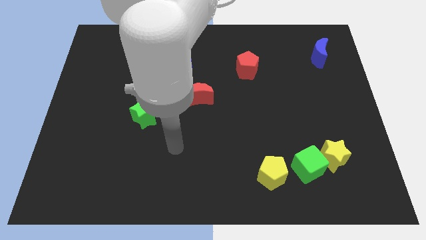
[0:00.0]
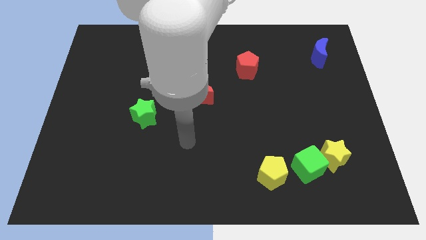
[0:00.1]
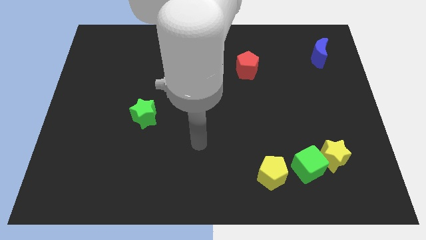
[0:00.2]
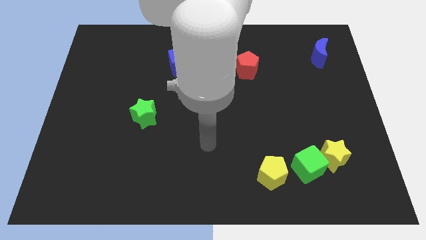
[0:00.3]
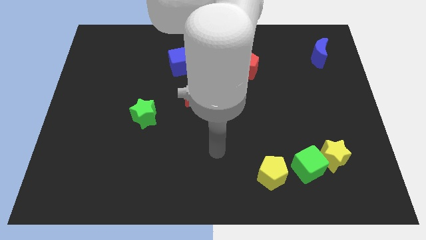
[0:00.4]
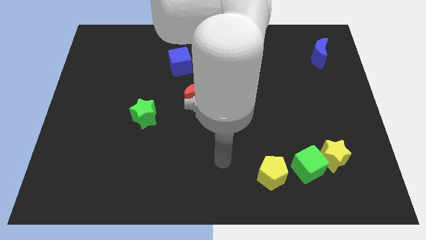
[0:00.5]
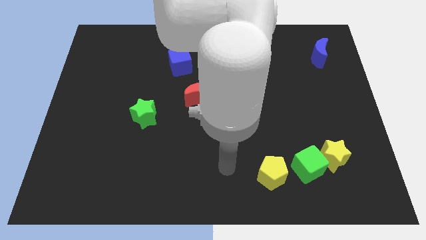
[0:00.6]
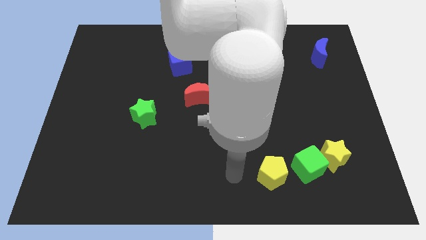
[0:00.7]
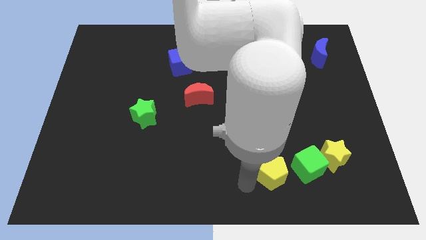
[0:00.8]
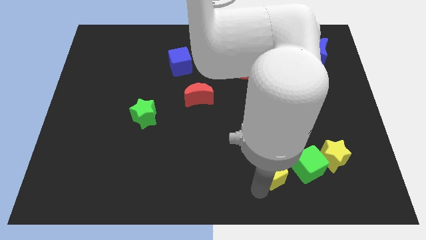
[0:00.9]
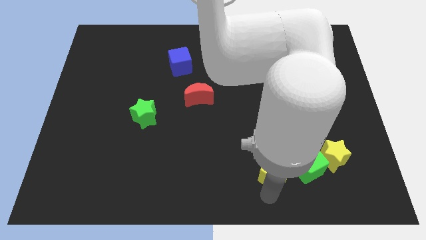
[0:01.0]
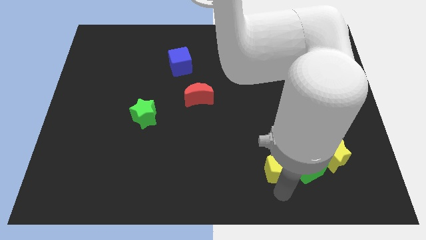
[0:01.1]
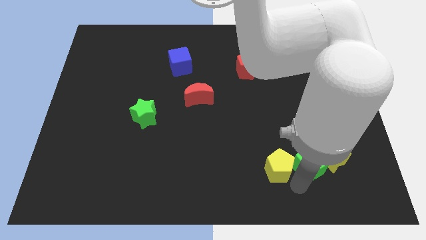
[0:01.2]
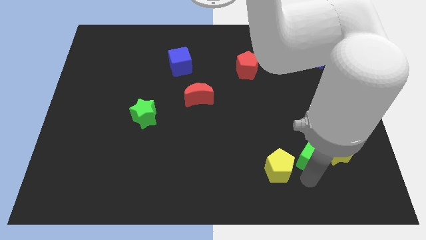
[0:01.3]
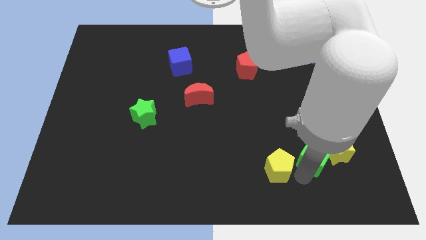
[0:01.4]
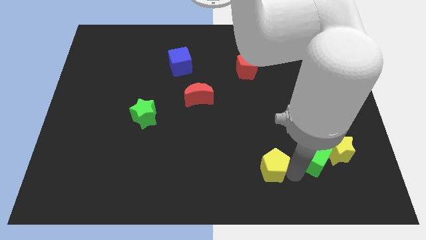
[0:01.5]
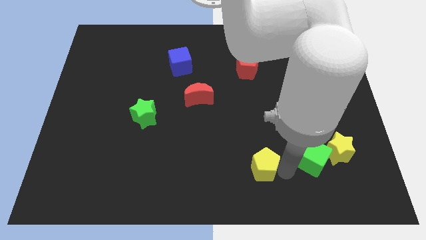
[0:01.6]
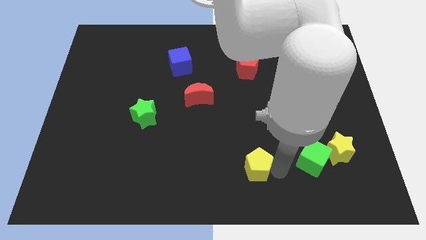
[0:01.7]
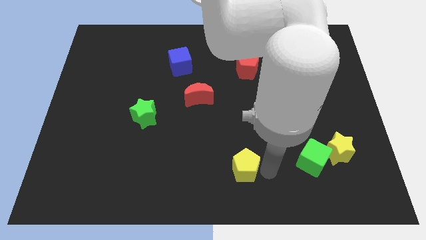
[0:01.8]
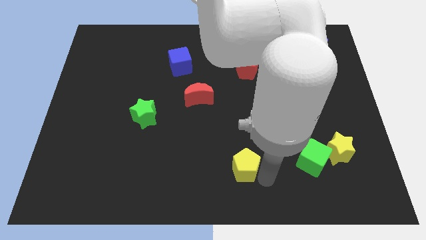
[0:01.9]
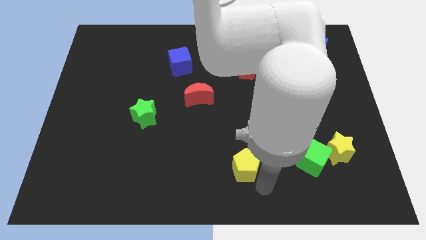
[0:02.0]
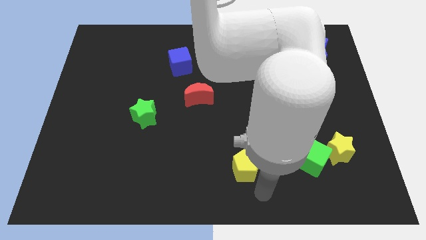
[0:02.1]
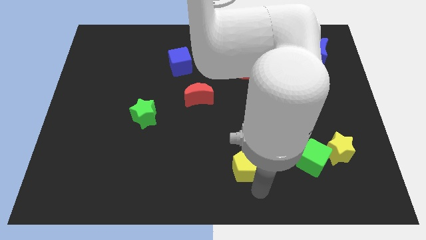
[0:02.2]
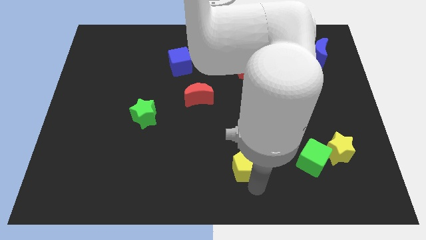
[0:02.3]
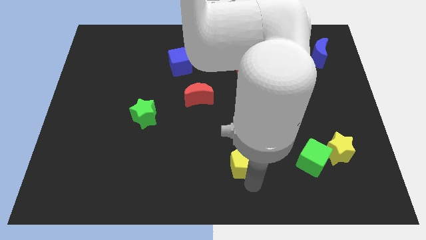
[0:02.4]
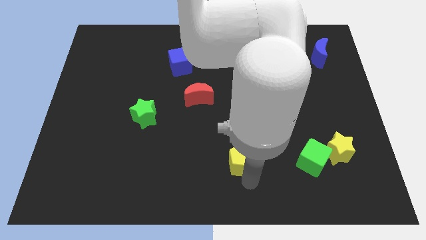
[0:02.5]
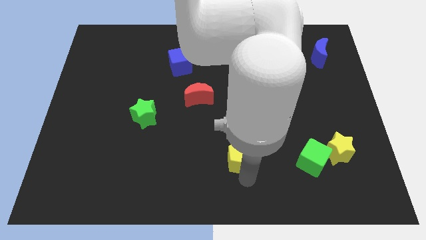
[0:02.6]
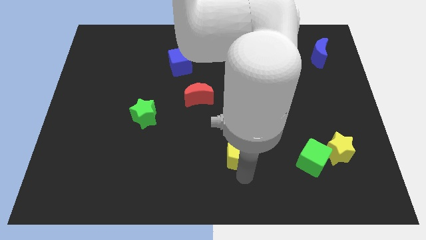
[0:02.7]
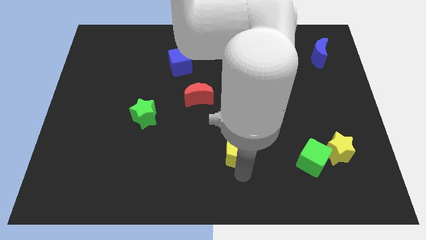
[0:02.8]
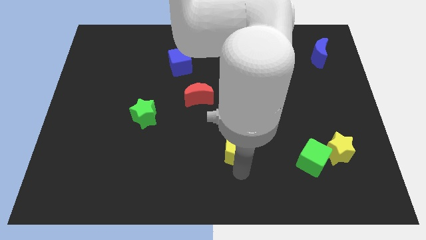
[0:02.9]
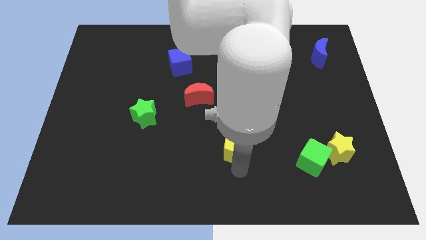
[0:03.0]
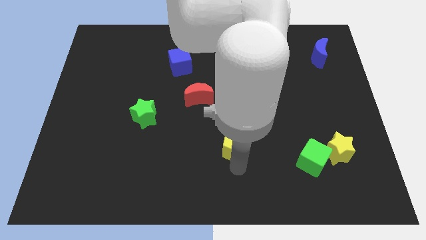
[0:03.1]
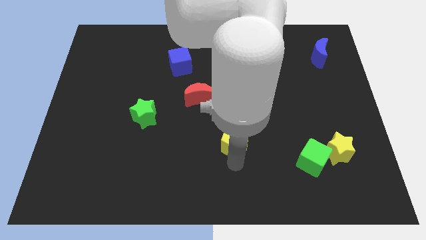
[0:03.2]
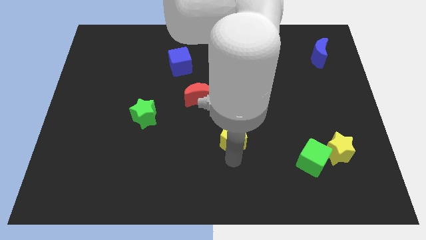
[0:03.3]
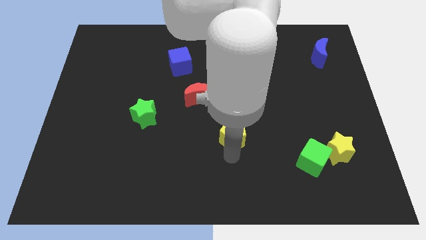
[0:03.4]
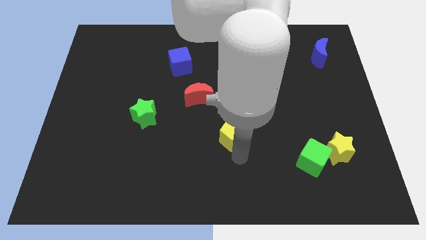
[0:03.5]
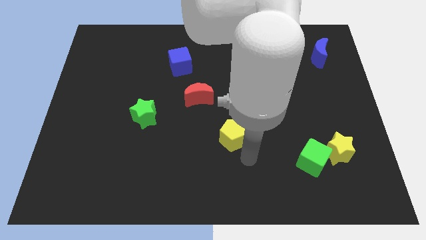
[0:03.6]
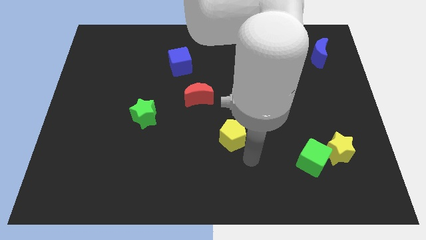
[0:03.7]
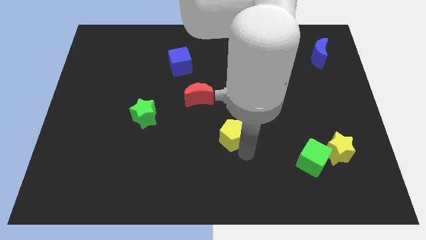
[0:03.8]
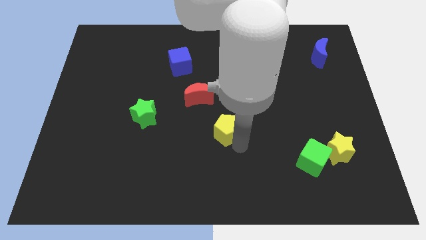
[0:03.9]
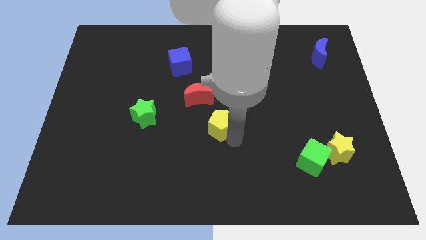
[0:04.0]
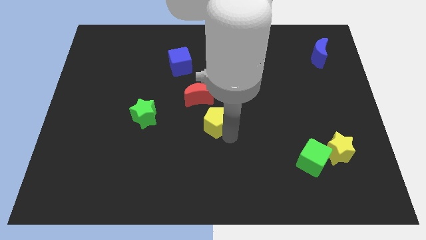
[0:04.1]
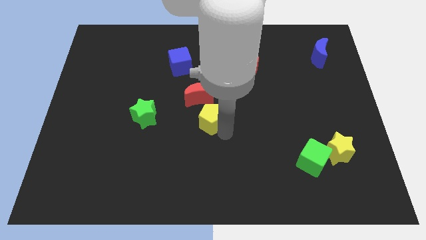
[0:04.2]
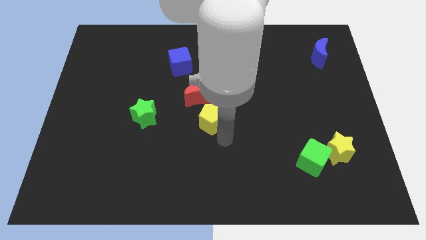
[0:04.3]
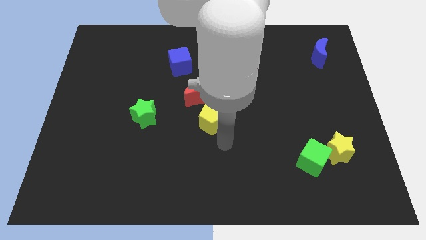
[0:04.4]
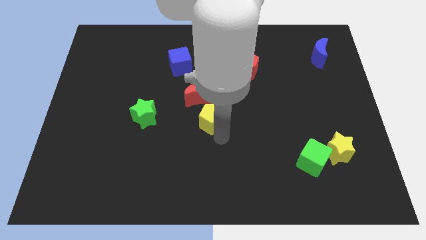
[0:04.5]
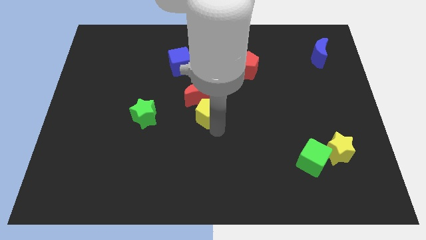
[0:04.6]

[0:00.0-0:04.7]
move the yellow pentagon to the red moon

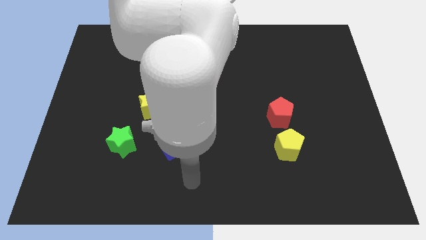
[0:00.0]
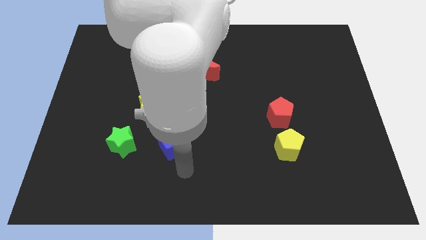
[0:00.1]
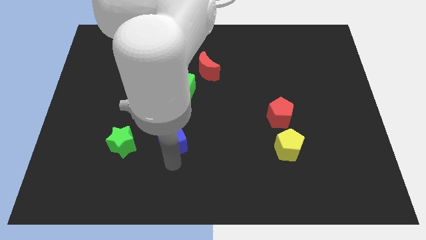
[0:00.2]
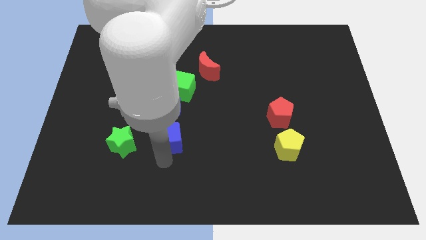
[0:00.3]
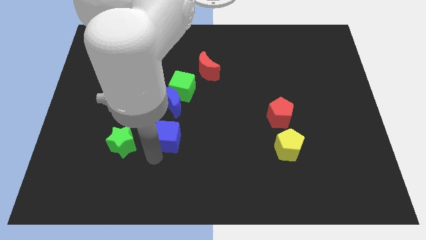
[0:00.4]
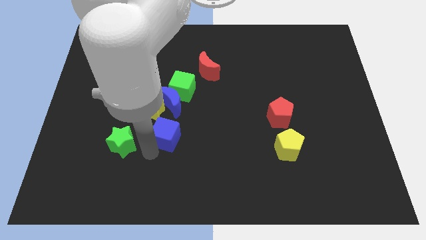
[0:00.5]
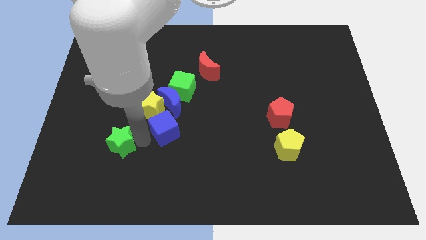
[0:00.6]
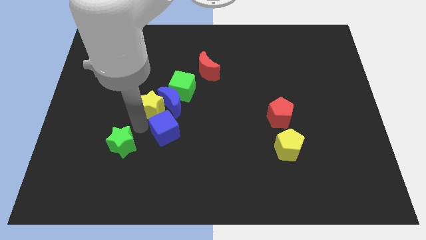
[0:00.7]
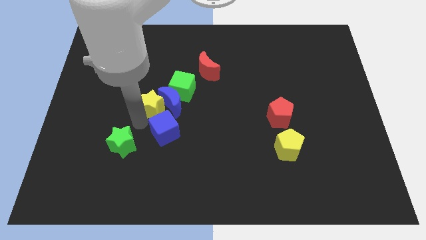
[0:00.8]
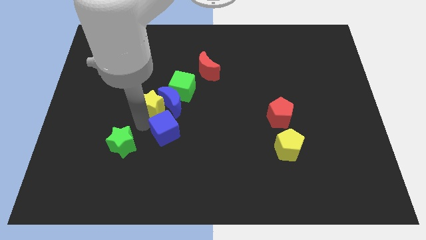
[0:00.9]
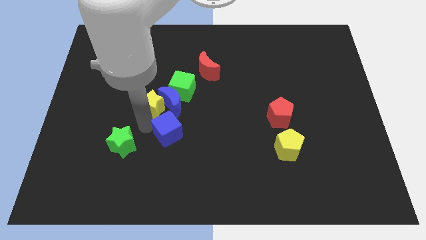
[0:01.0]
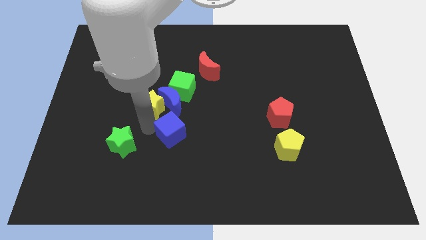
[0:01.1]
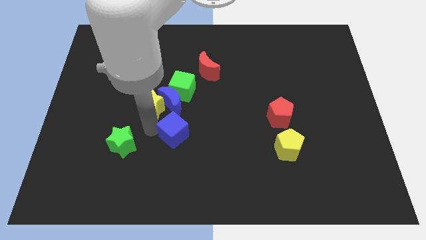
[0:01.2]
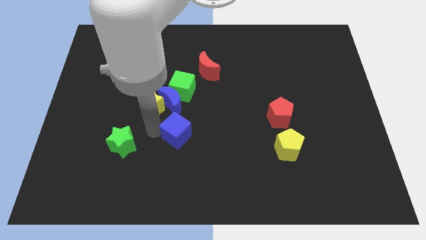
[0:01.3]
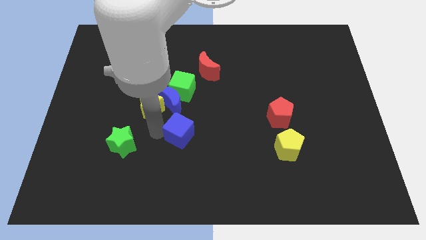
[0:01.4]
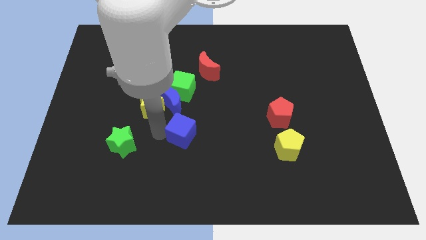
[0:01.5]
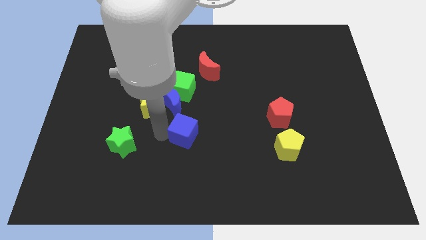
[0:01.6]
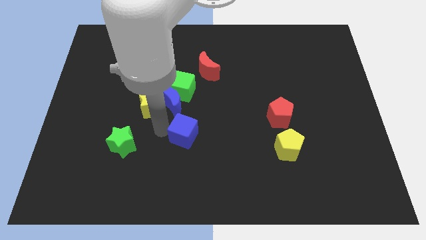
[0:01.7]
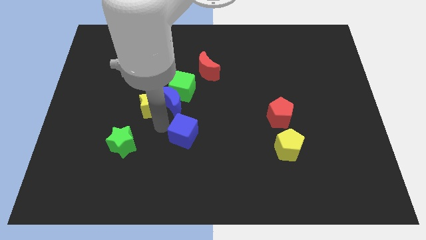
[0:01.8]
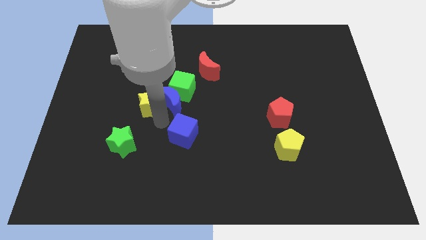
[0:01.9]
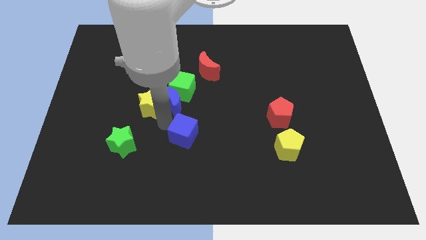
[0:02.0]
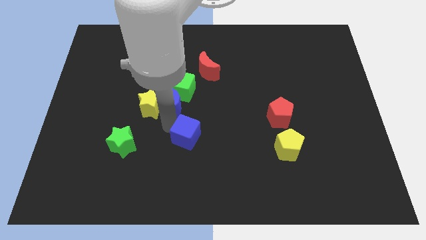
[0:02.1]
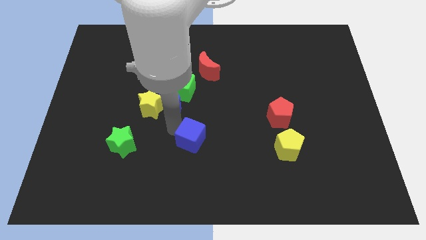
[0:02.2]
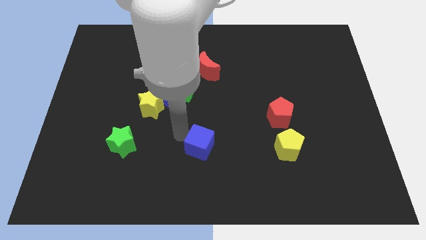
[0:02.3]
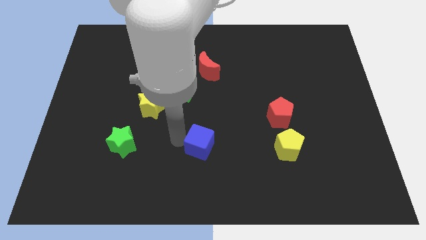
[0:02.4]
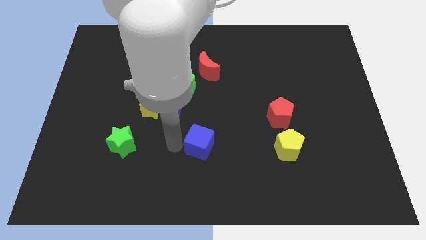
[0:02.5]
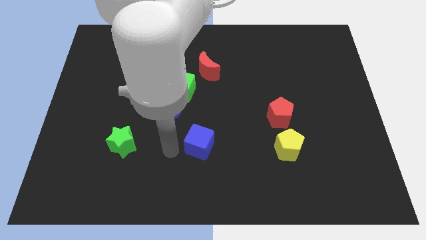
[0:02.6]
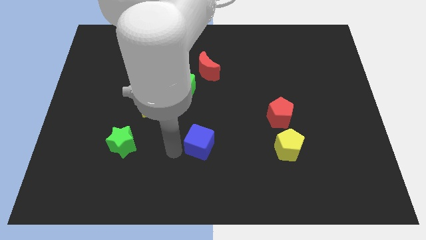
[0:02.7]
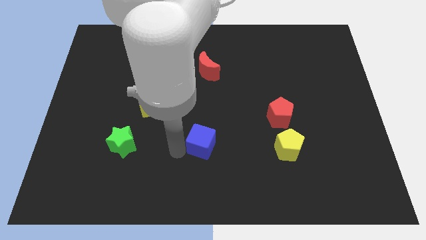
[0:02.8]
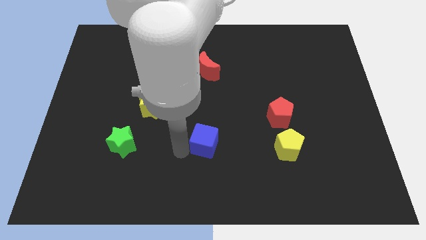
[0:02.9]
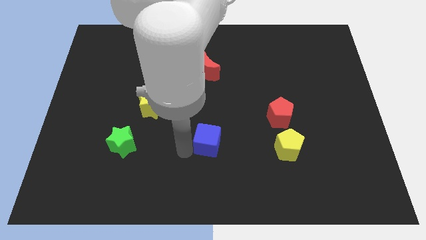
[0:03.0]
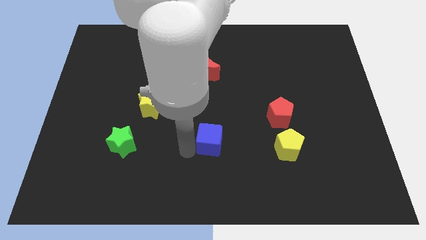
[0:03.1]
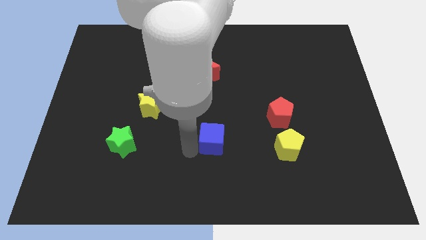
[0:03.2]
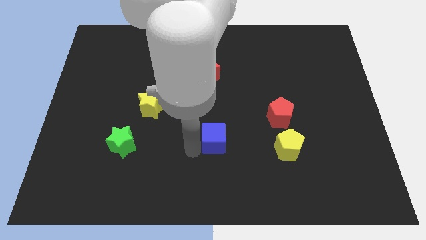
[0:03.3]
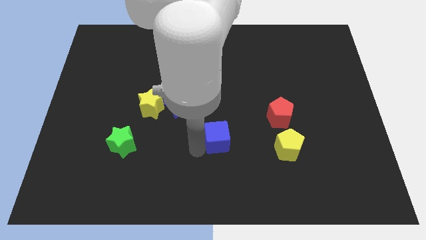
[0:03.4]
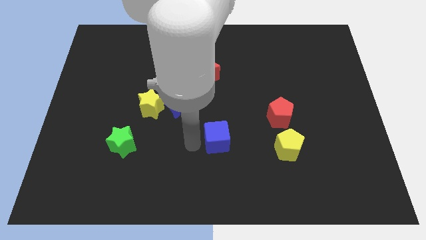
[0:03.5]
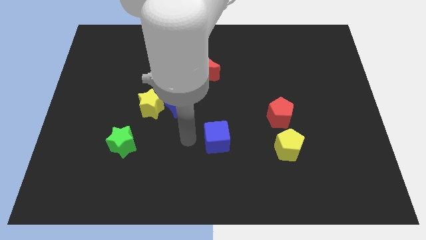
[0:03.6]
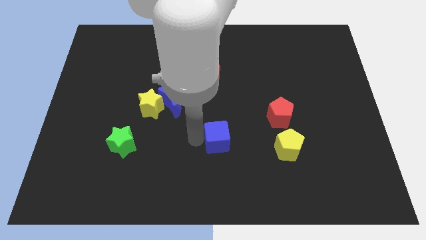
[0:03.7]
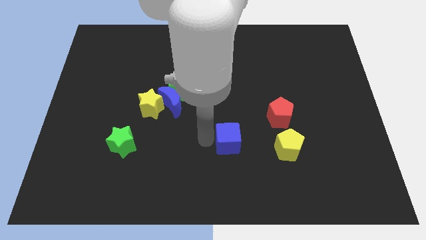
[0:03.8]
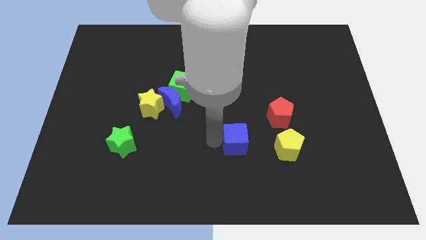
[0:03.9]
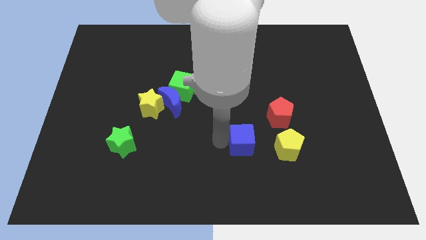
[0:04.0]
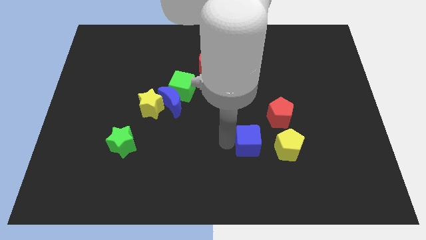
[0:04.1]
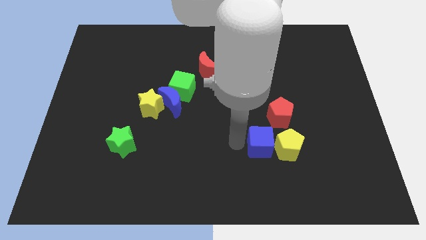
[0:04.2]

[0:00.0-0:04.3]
put the blue cube next to the yellow pentagon
